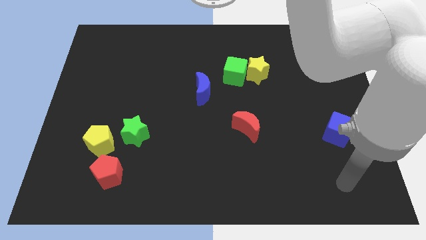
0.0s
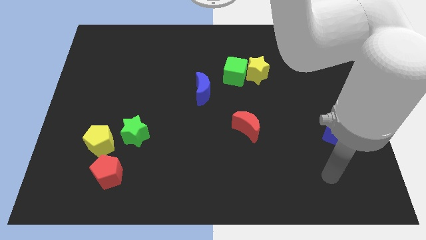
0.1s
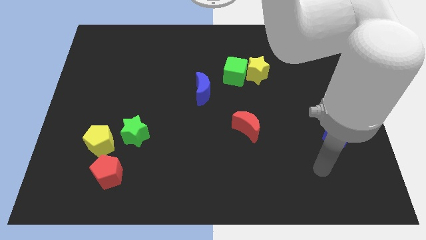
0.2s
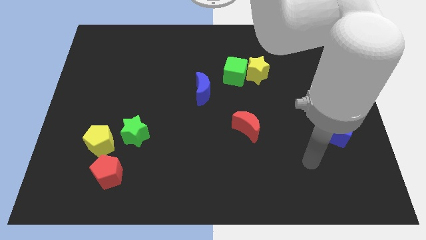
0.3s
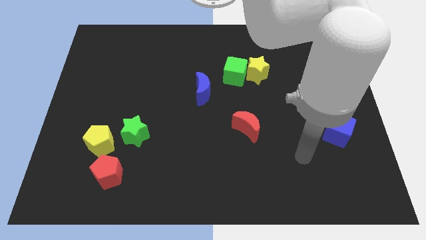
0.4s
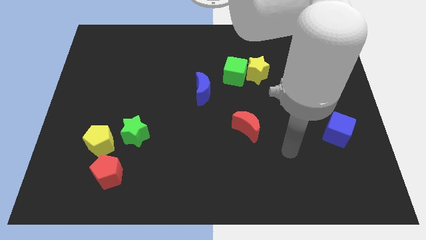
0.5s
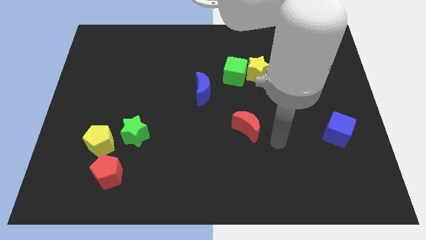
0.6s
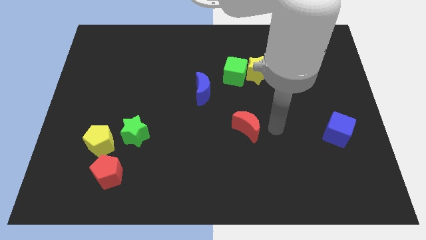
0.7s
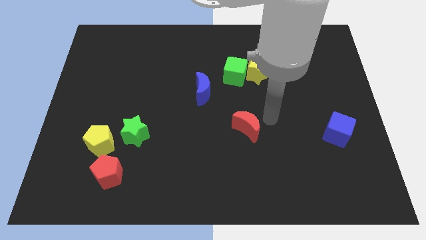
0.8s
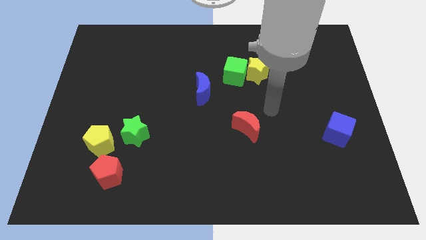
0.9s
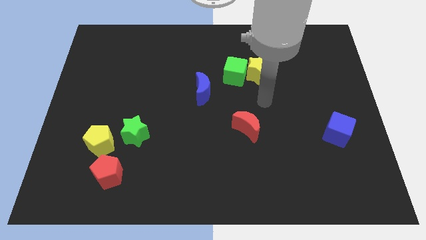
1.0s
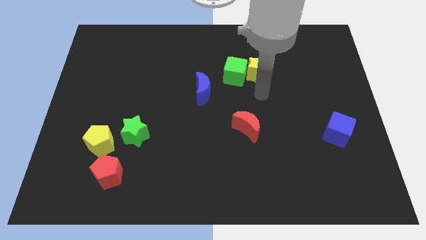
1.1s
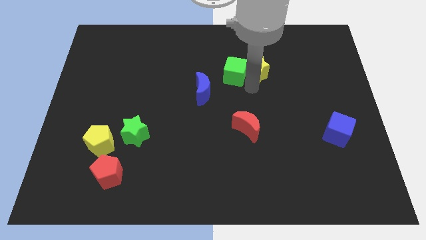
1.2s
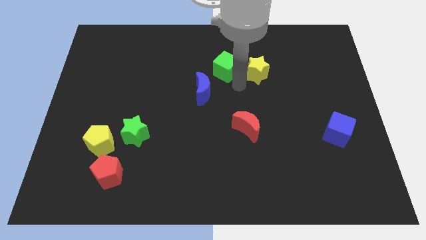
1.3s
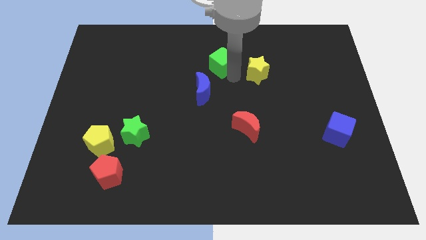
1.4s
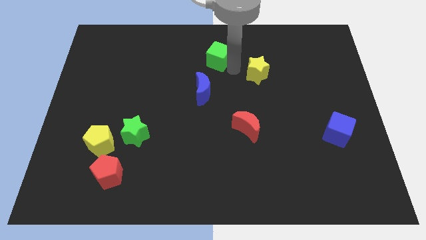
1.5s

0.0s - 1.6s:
move the yellow star away from the green cube

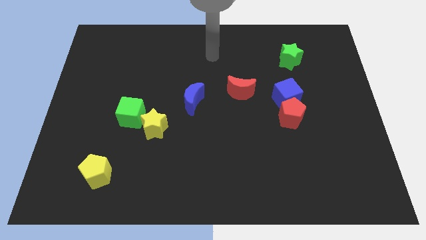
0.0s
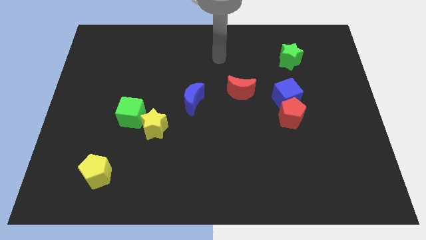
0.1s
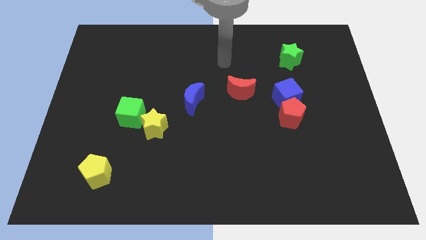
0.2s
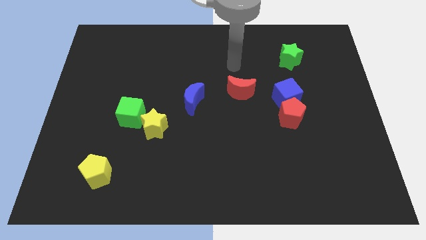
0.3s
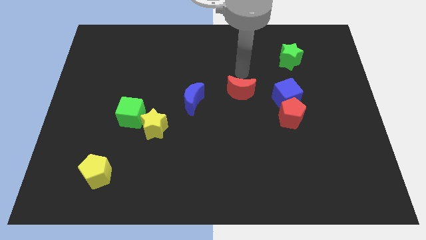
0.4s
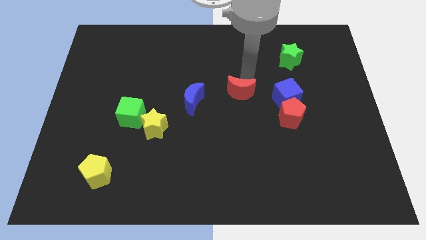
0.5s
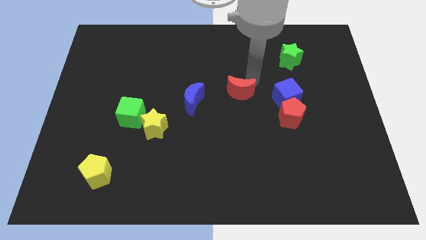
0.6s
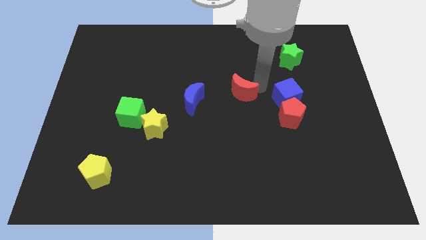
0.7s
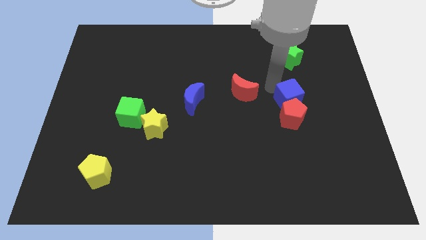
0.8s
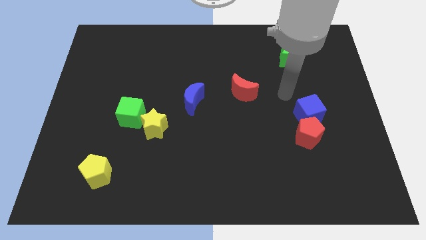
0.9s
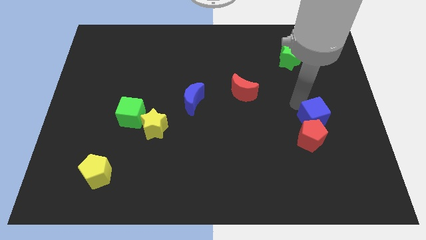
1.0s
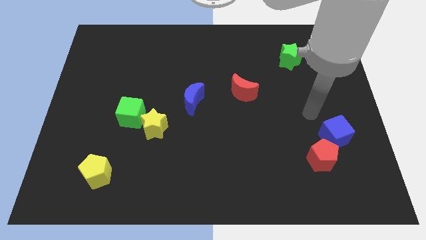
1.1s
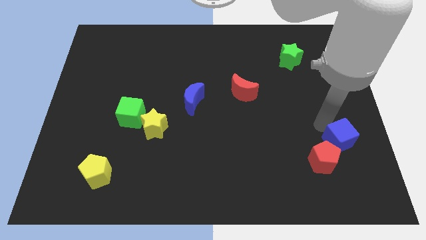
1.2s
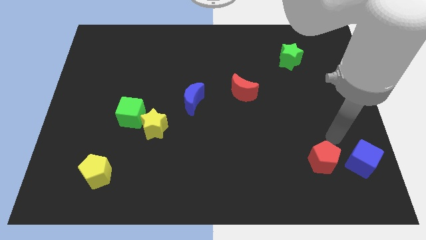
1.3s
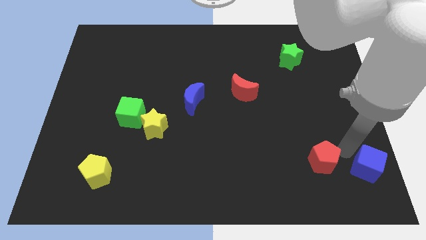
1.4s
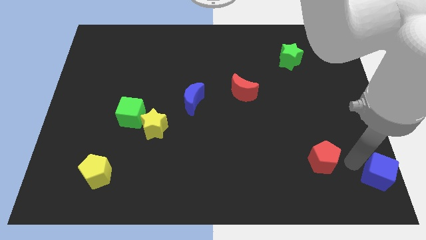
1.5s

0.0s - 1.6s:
move the red pentagon away from the blue cube

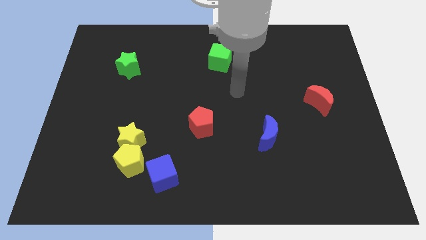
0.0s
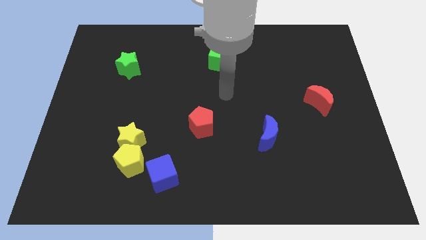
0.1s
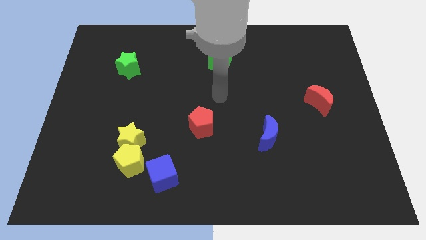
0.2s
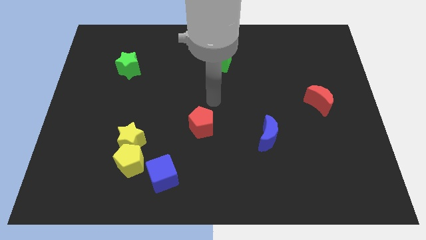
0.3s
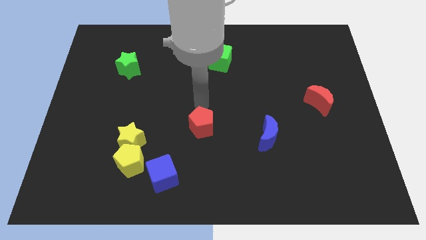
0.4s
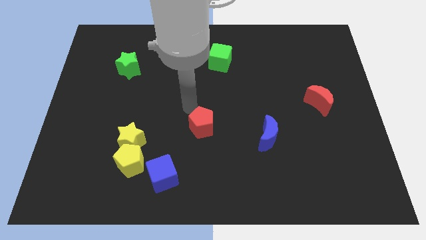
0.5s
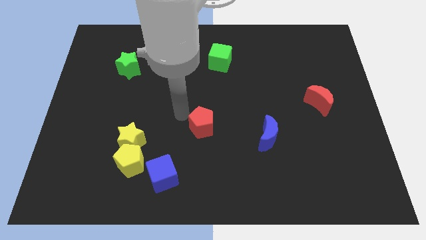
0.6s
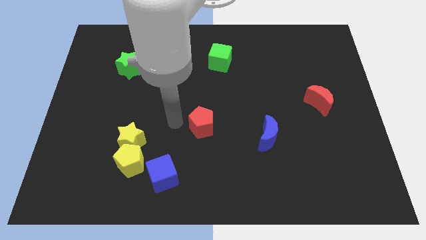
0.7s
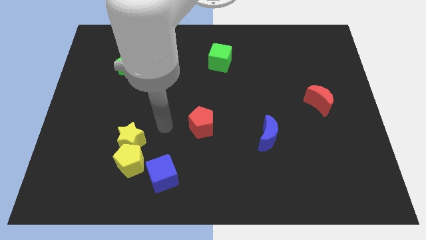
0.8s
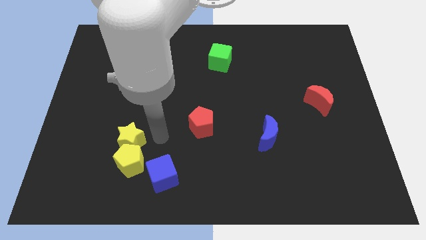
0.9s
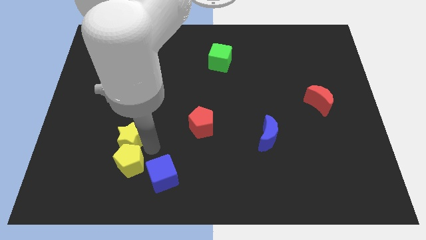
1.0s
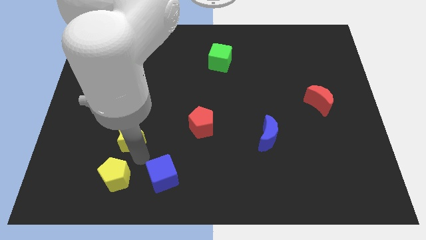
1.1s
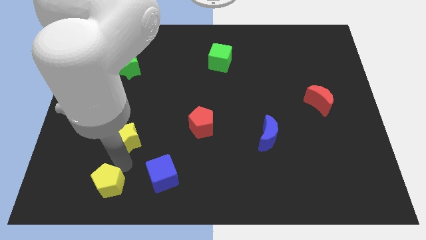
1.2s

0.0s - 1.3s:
move the yellow star away from the yellow pentagon

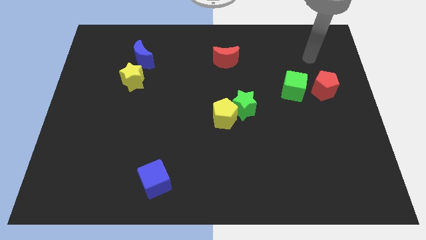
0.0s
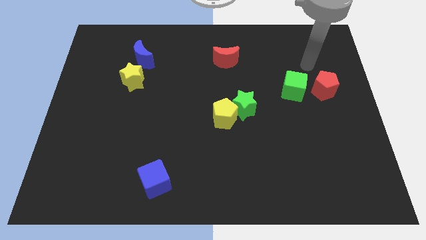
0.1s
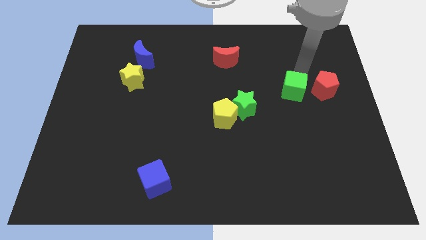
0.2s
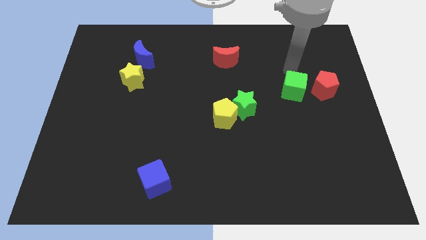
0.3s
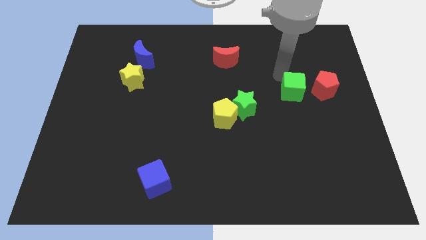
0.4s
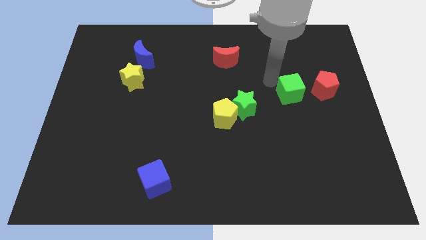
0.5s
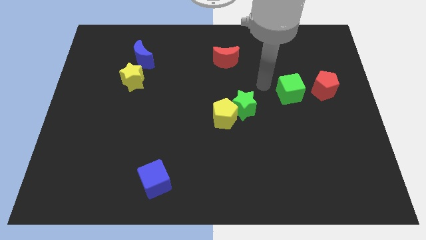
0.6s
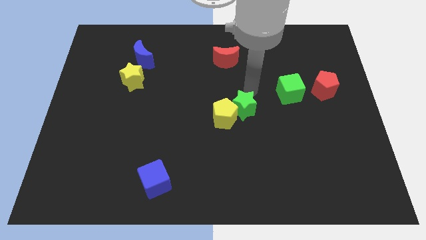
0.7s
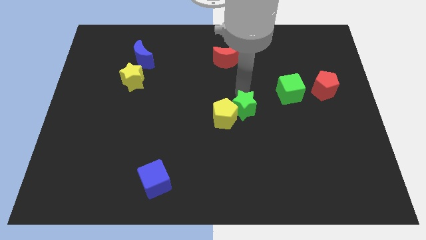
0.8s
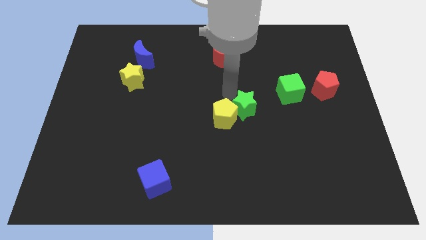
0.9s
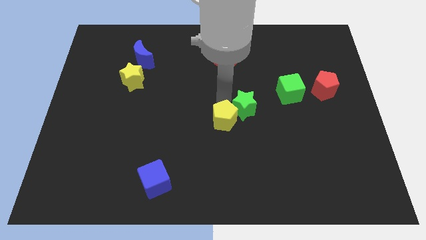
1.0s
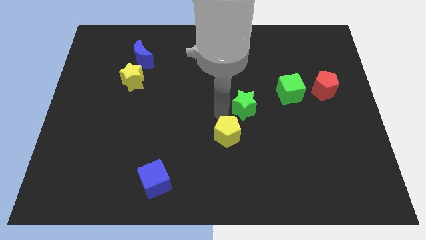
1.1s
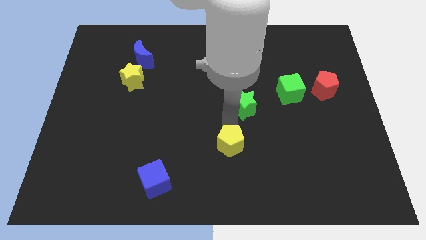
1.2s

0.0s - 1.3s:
move the green star away from the yellow pentagon

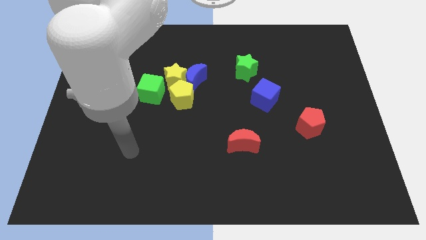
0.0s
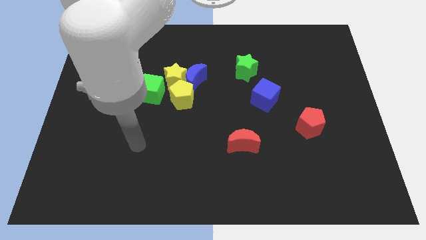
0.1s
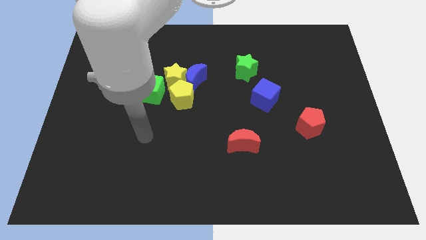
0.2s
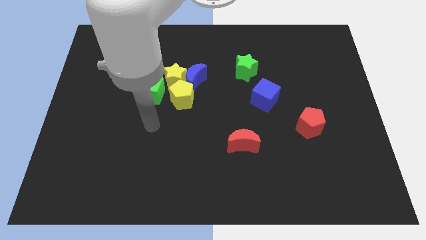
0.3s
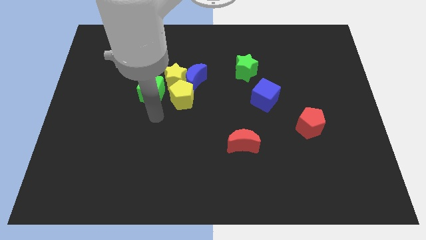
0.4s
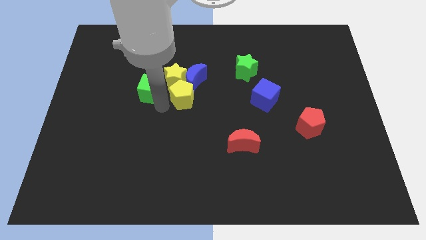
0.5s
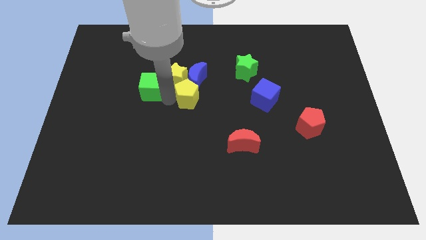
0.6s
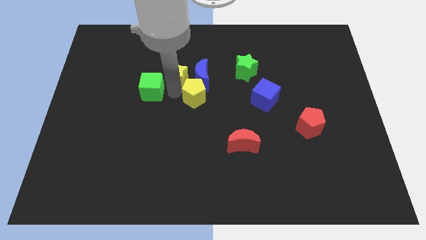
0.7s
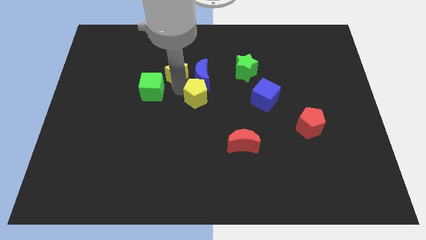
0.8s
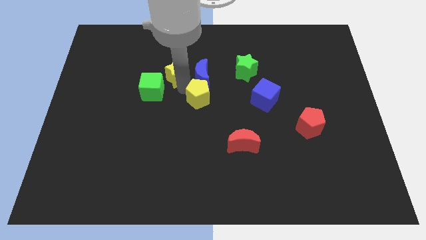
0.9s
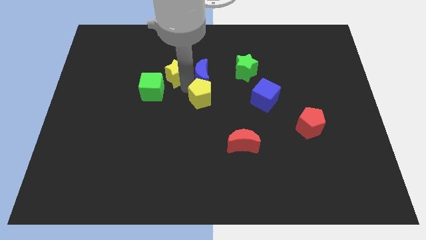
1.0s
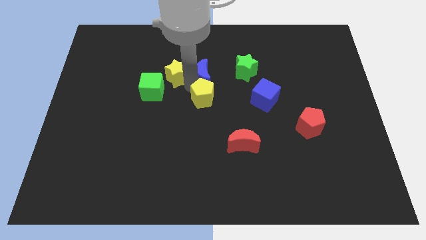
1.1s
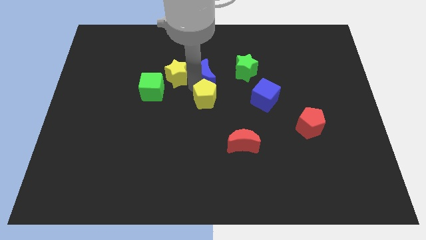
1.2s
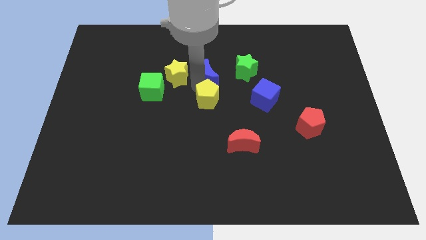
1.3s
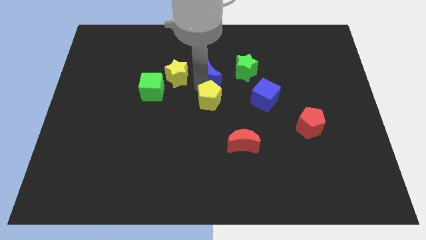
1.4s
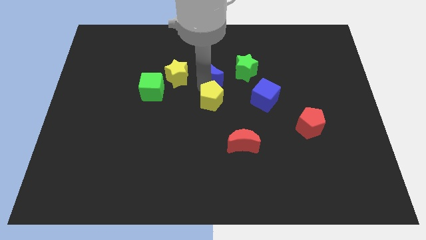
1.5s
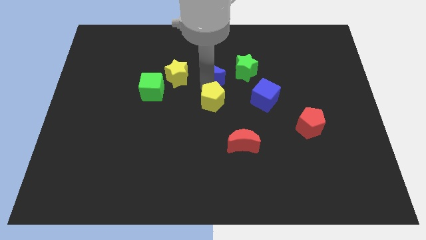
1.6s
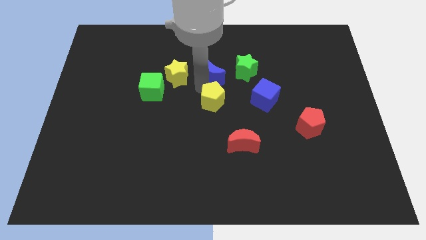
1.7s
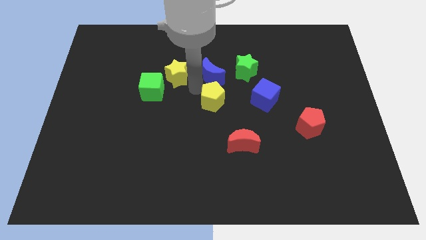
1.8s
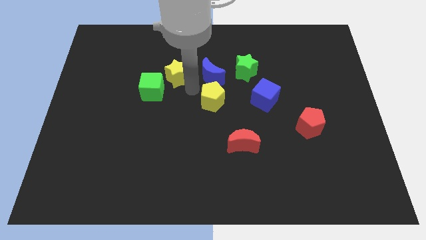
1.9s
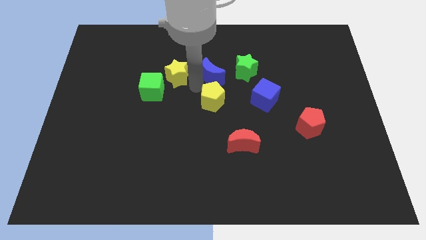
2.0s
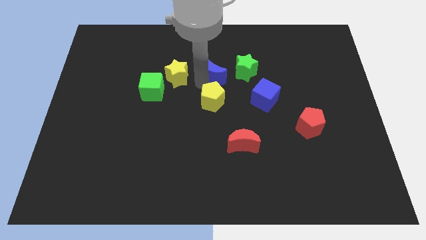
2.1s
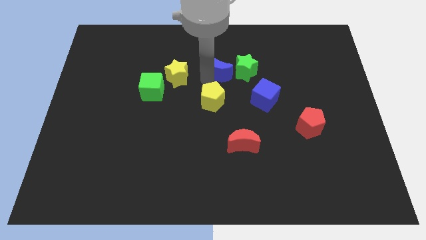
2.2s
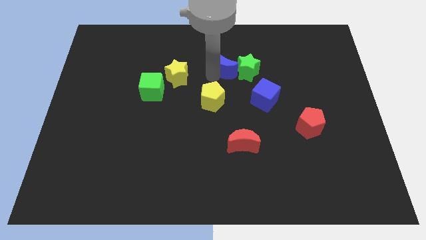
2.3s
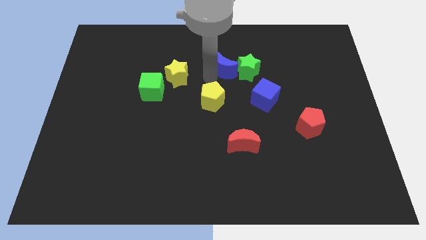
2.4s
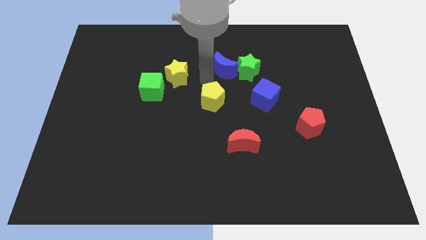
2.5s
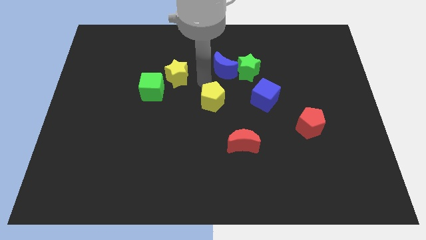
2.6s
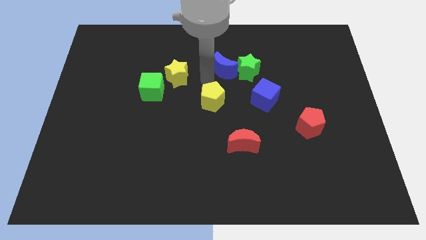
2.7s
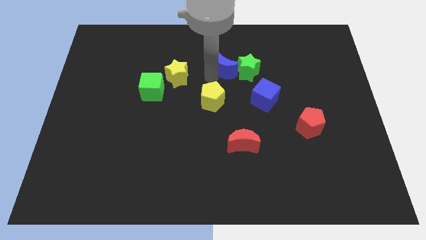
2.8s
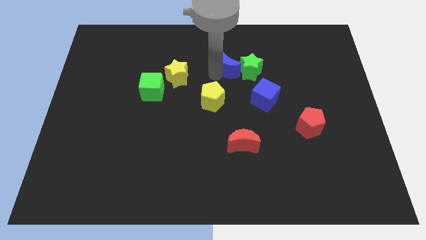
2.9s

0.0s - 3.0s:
pull the blue moon apart from the yellow star and yellow pentagon

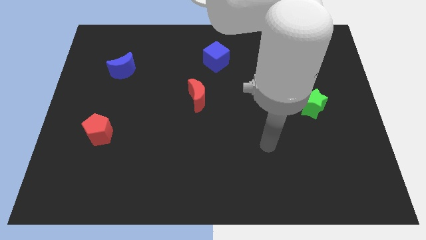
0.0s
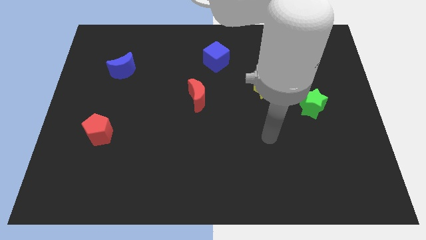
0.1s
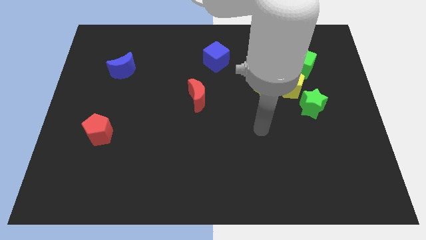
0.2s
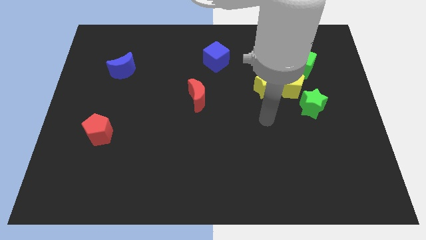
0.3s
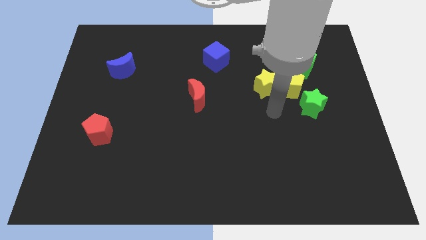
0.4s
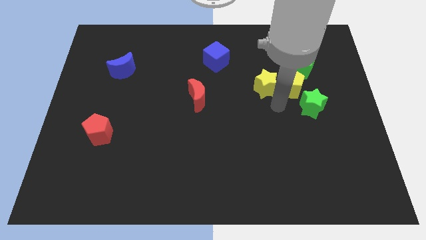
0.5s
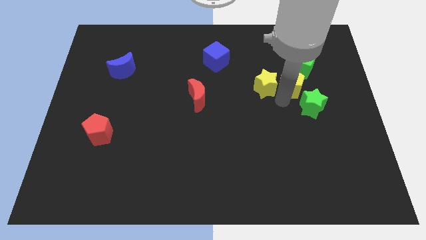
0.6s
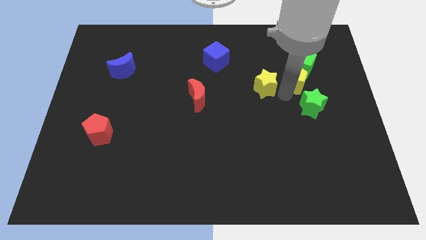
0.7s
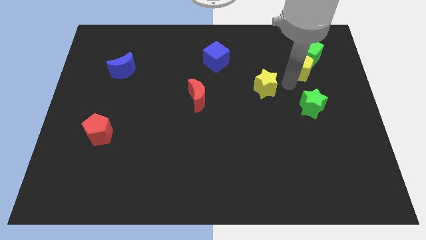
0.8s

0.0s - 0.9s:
separate the yellow star from the yellow pentagon
